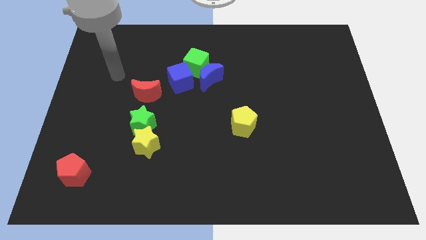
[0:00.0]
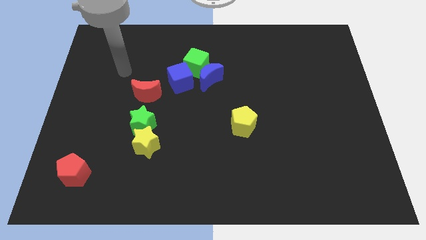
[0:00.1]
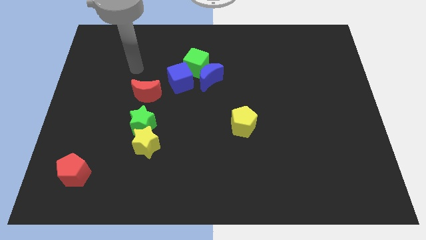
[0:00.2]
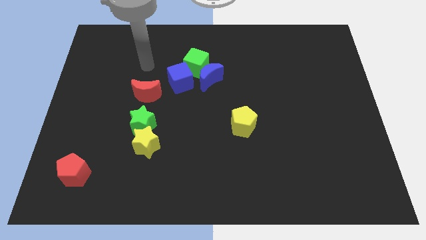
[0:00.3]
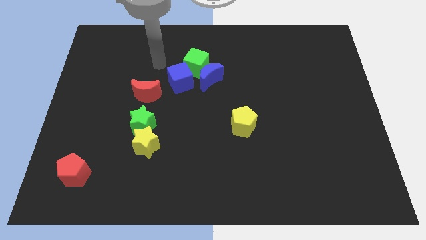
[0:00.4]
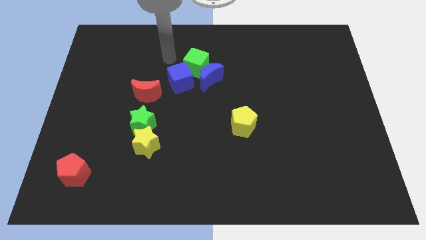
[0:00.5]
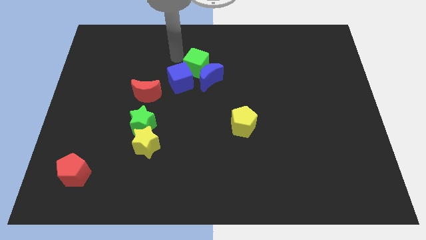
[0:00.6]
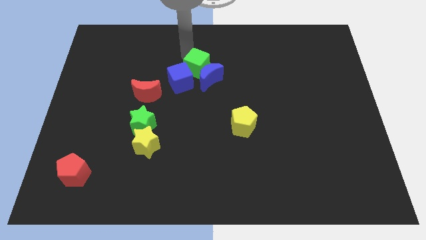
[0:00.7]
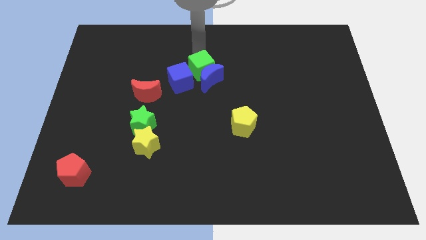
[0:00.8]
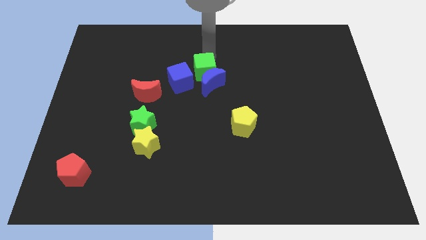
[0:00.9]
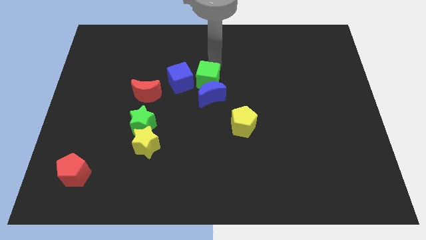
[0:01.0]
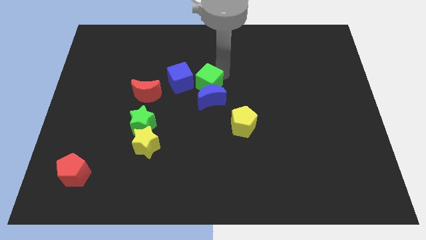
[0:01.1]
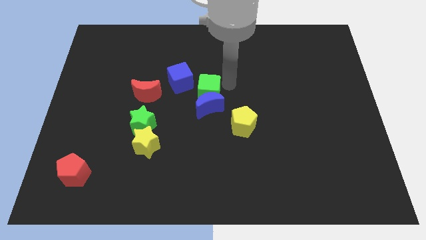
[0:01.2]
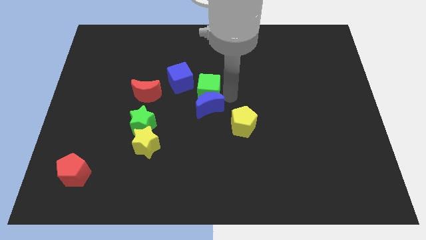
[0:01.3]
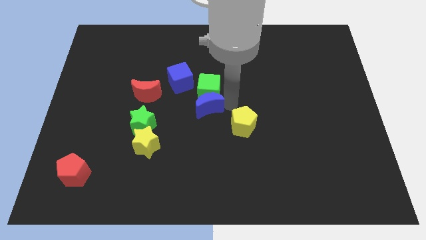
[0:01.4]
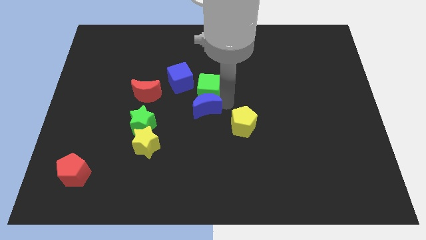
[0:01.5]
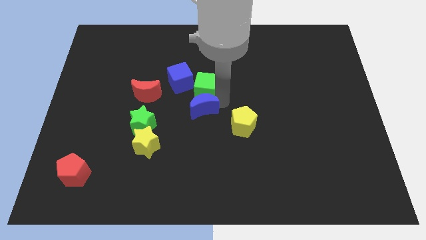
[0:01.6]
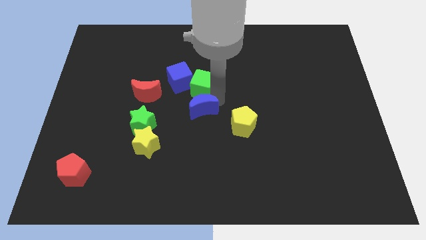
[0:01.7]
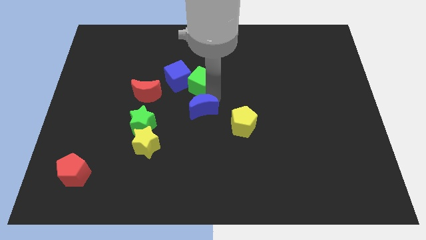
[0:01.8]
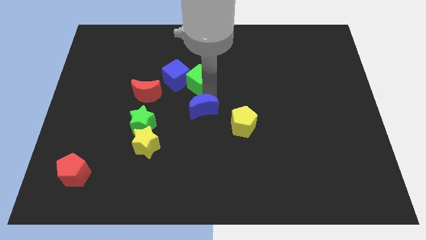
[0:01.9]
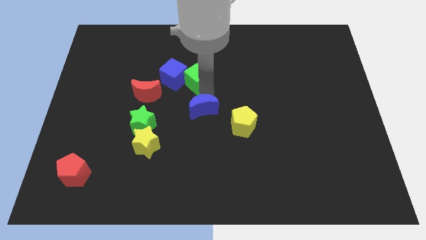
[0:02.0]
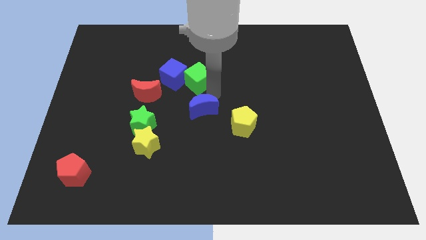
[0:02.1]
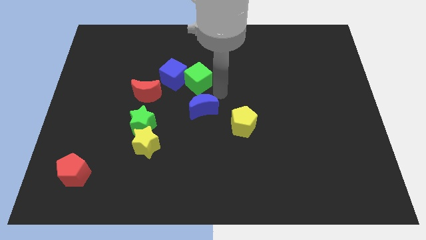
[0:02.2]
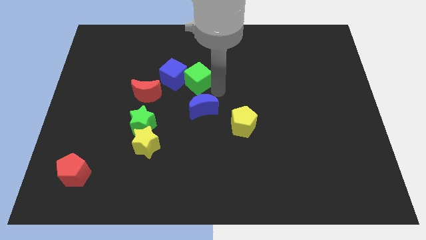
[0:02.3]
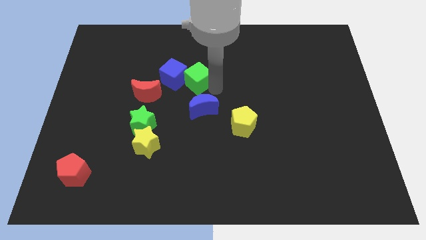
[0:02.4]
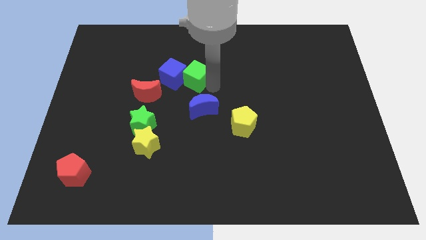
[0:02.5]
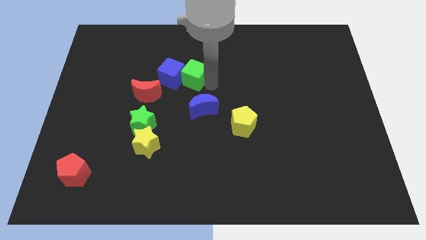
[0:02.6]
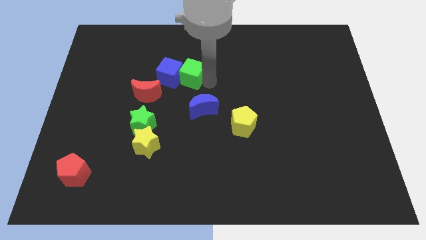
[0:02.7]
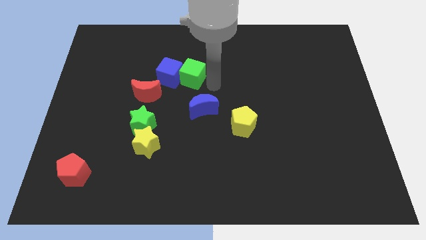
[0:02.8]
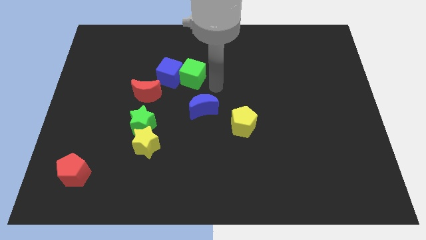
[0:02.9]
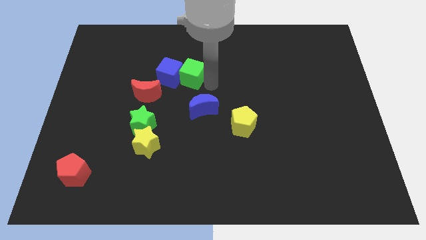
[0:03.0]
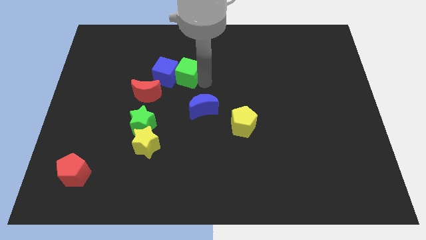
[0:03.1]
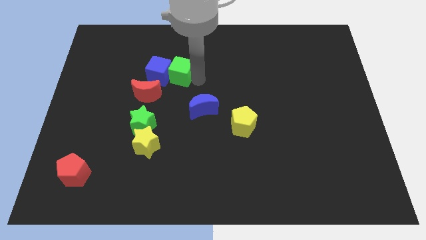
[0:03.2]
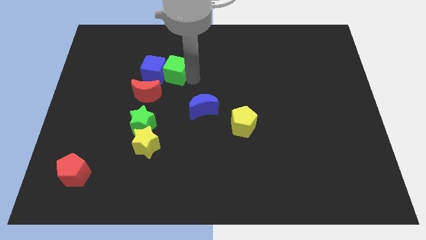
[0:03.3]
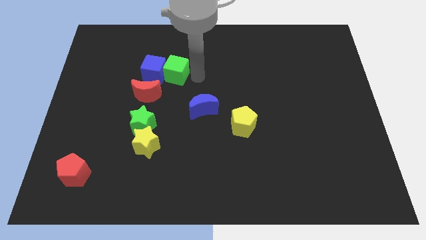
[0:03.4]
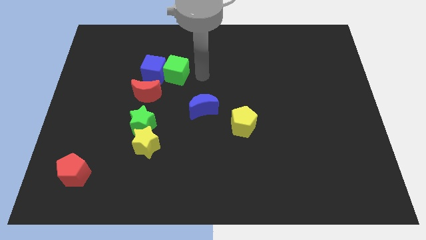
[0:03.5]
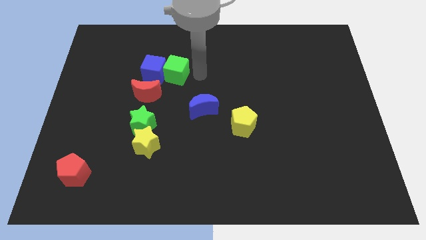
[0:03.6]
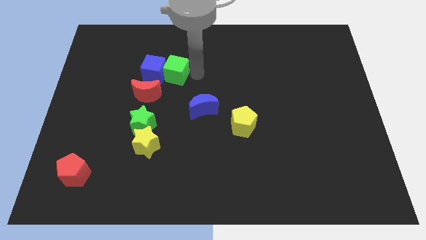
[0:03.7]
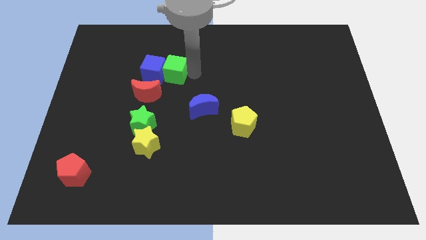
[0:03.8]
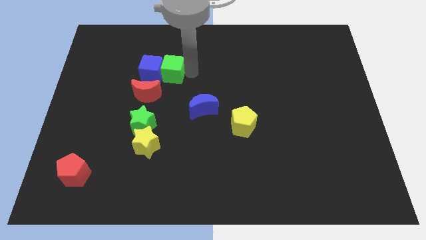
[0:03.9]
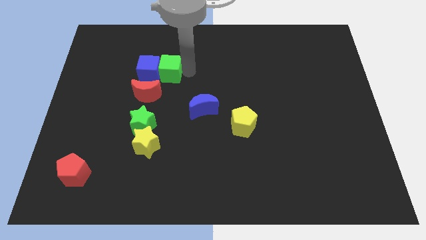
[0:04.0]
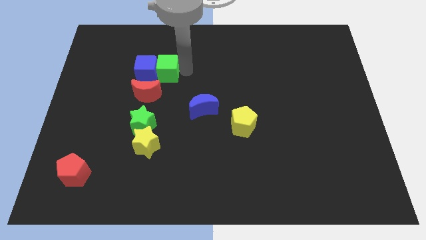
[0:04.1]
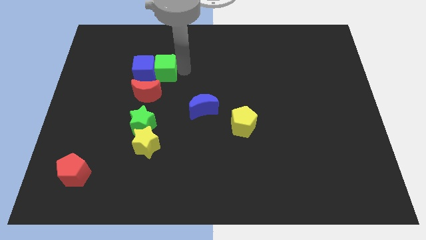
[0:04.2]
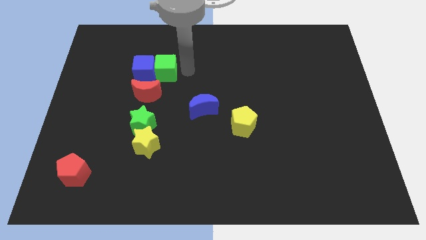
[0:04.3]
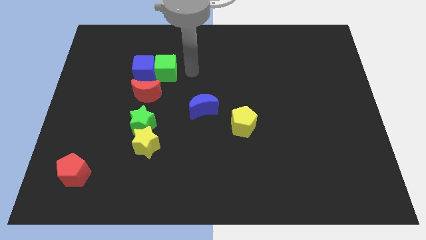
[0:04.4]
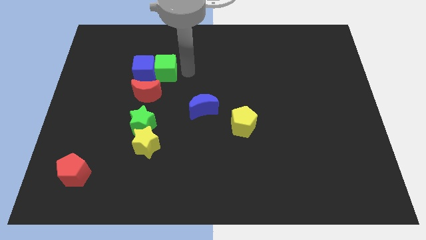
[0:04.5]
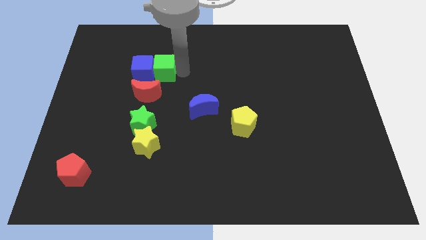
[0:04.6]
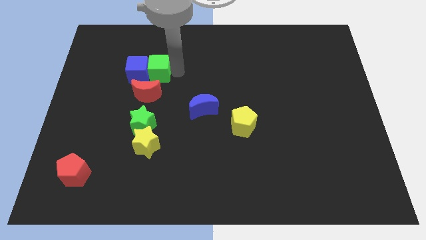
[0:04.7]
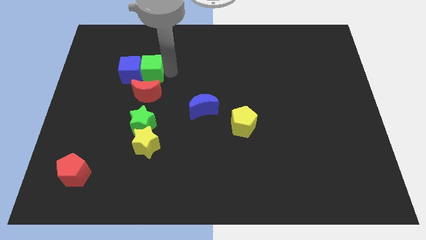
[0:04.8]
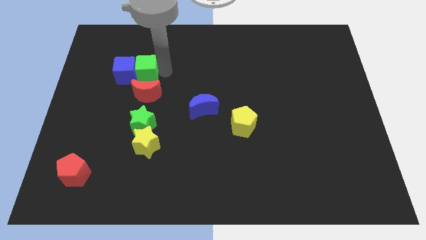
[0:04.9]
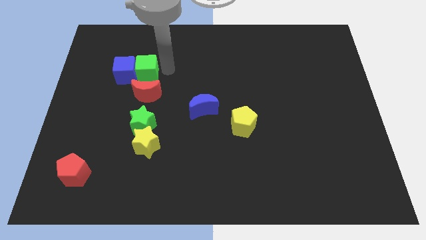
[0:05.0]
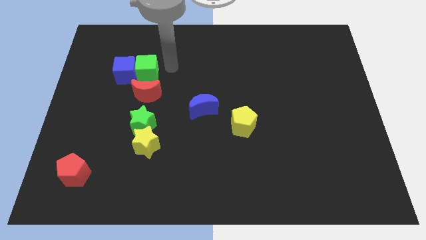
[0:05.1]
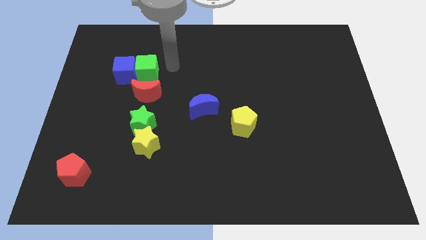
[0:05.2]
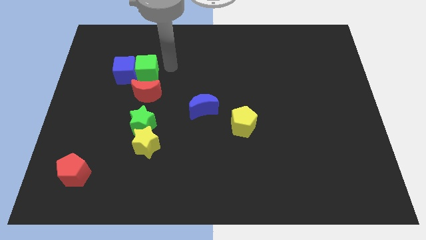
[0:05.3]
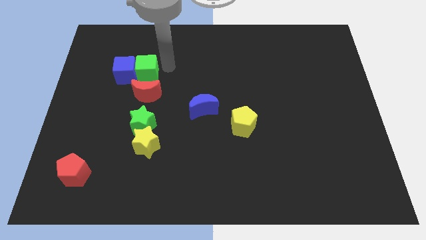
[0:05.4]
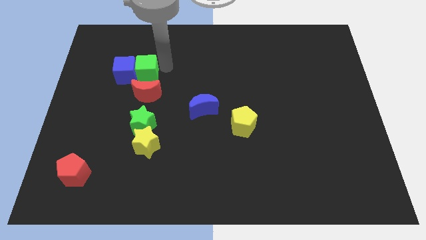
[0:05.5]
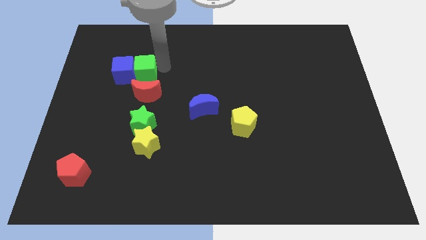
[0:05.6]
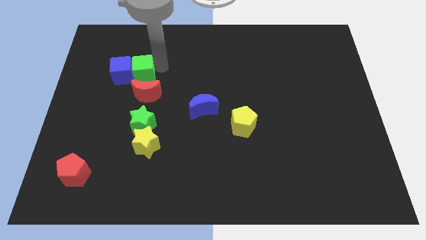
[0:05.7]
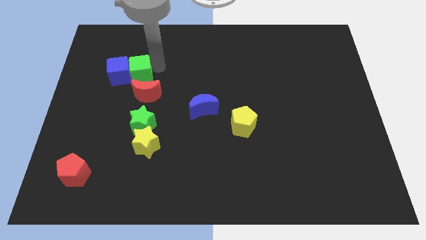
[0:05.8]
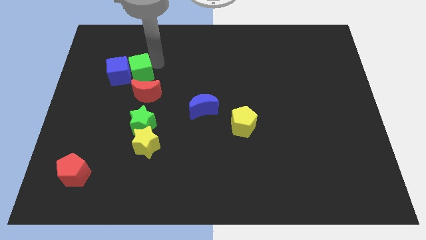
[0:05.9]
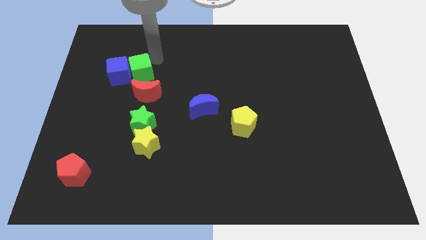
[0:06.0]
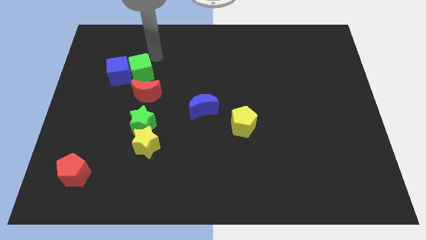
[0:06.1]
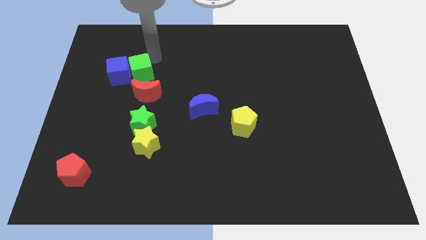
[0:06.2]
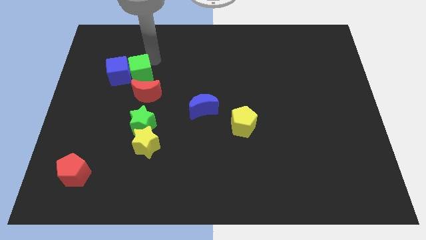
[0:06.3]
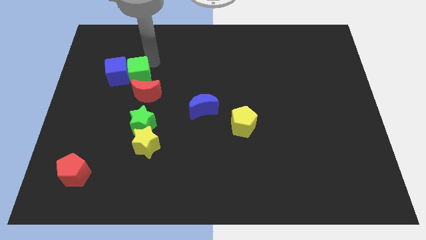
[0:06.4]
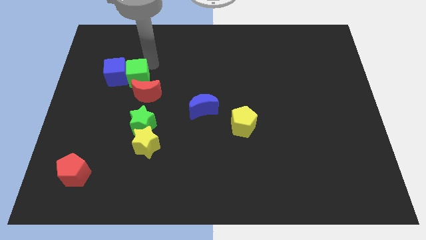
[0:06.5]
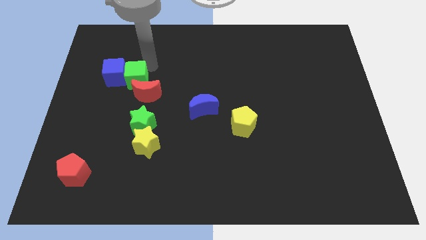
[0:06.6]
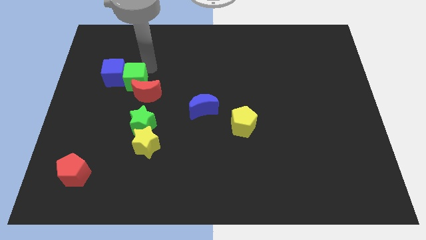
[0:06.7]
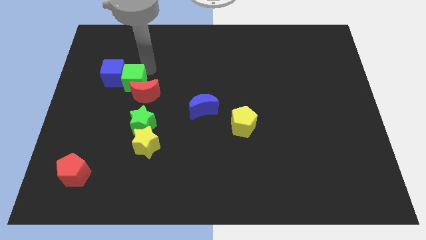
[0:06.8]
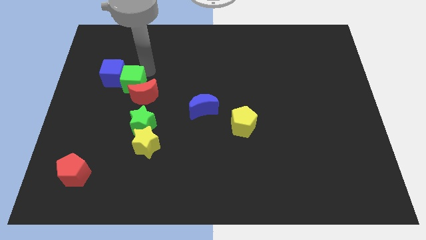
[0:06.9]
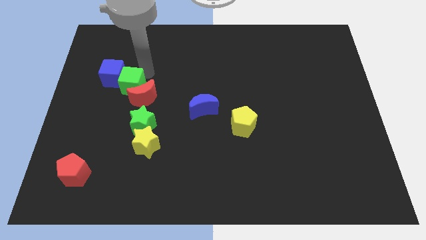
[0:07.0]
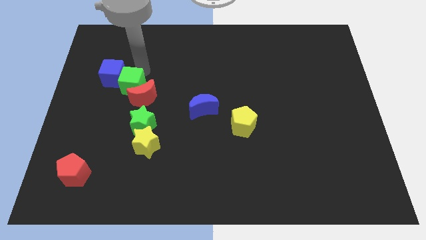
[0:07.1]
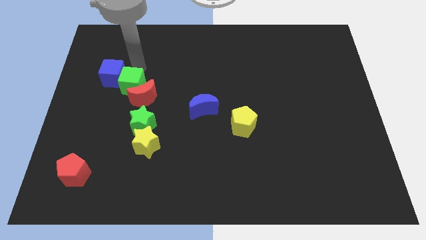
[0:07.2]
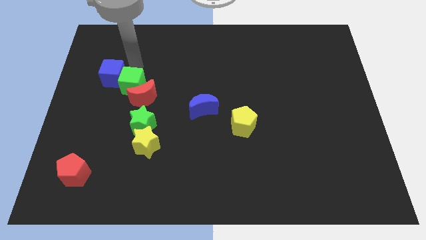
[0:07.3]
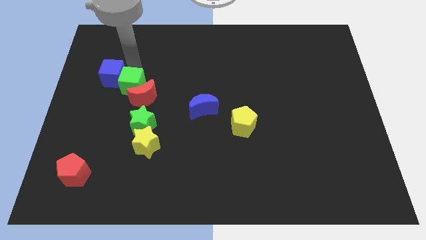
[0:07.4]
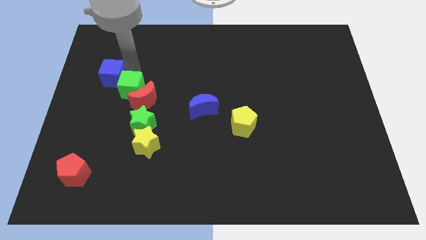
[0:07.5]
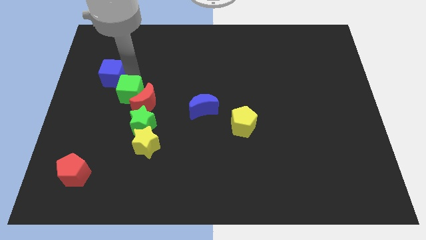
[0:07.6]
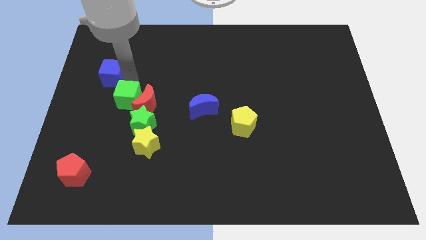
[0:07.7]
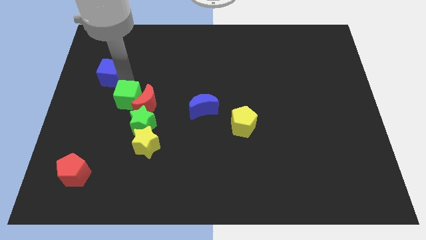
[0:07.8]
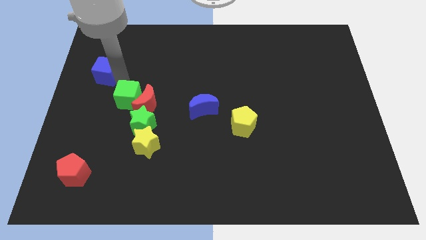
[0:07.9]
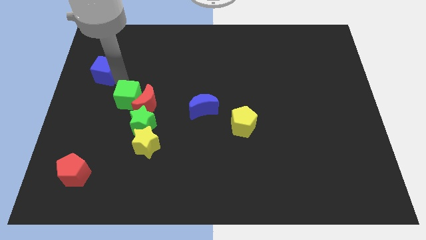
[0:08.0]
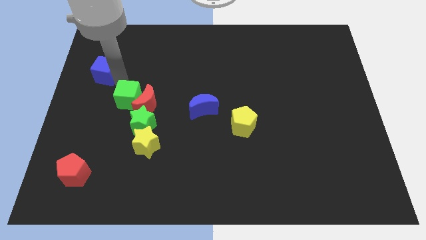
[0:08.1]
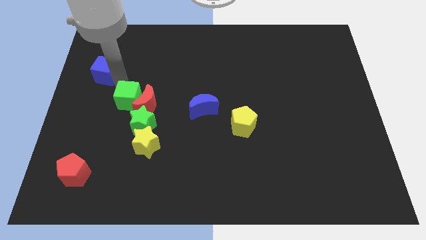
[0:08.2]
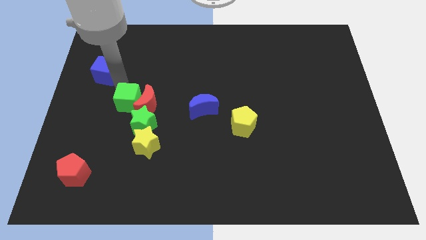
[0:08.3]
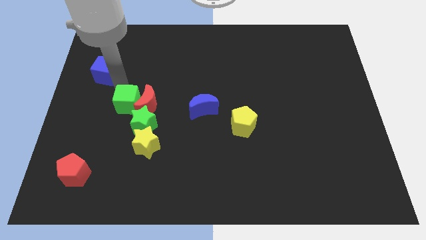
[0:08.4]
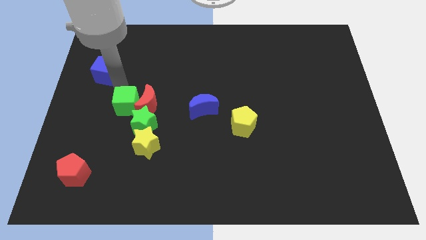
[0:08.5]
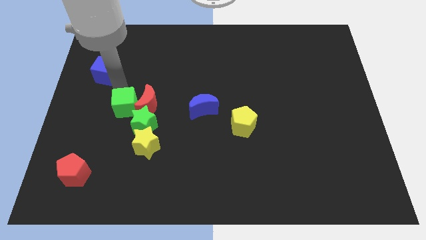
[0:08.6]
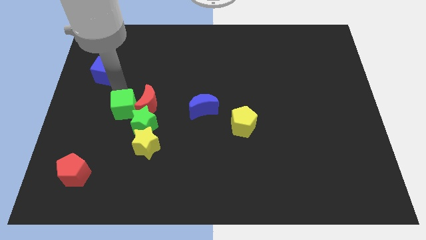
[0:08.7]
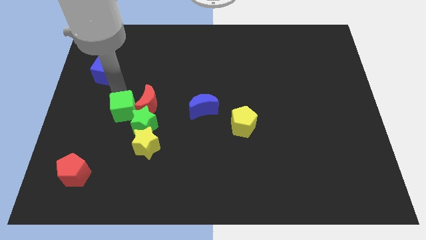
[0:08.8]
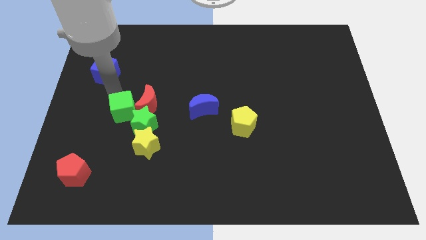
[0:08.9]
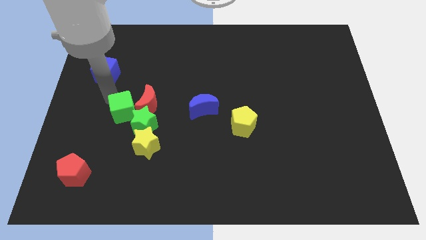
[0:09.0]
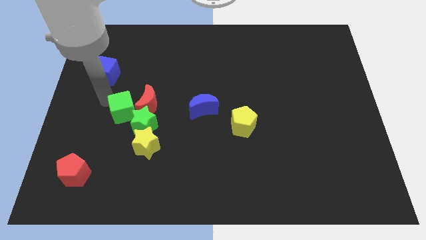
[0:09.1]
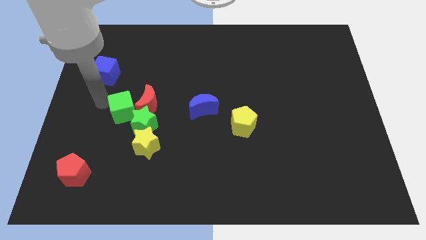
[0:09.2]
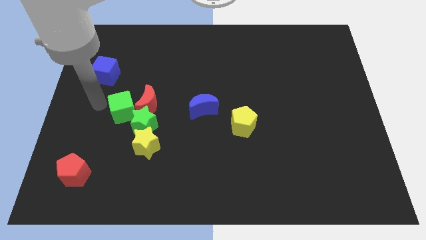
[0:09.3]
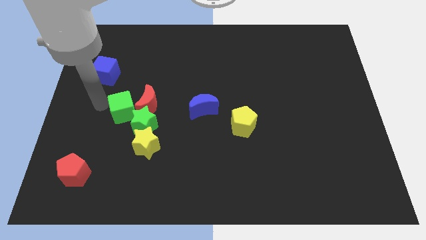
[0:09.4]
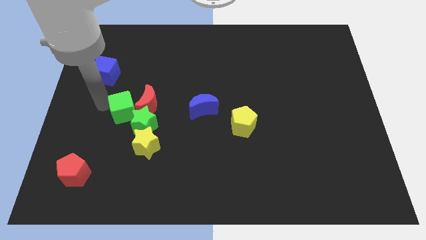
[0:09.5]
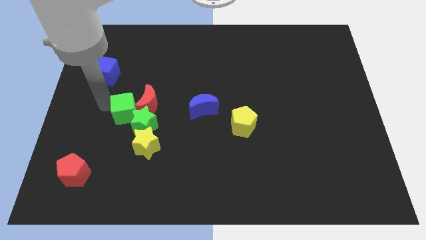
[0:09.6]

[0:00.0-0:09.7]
slide the green cube close to the green star
